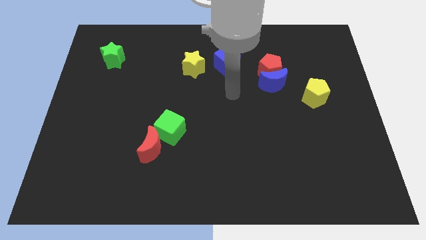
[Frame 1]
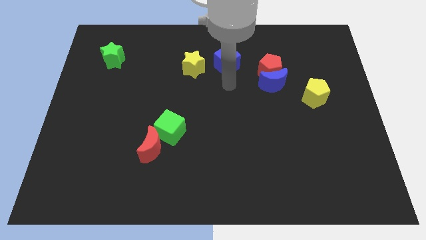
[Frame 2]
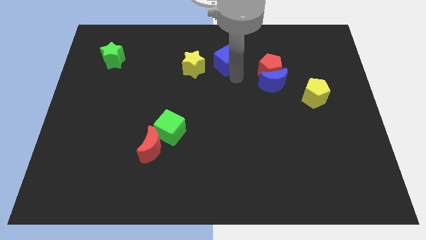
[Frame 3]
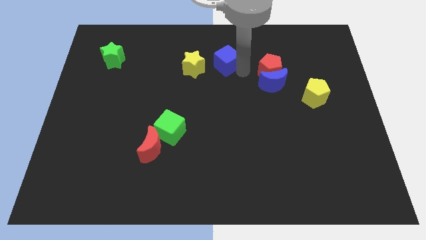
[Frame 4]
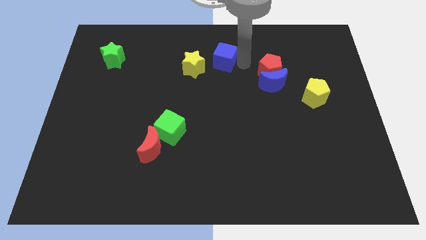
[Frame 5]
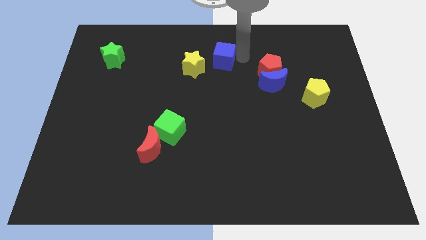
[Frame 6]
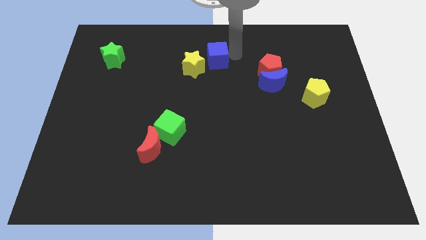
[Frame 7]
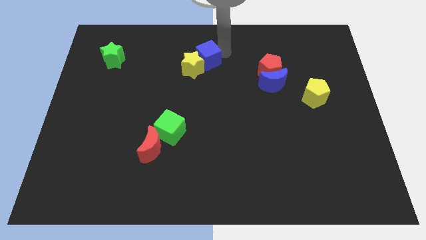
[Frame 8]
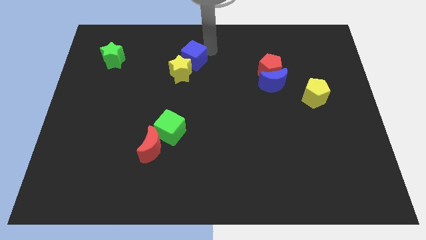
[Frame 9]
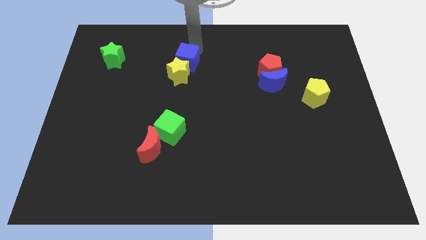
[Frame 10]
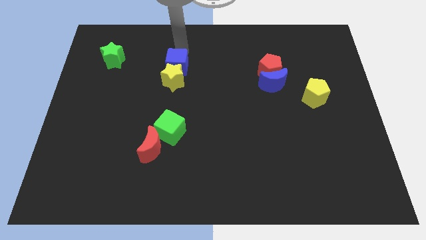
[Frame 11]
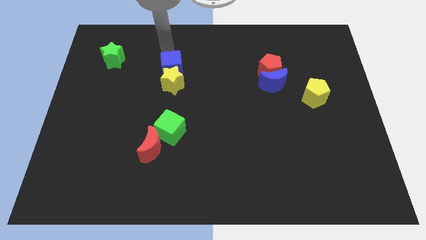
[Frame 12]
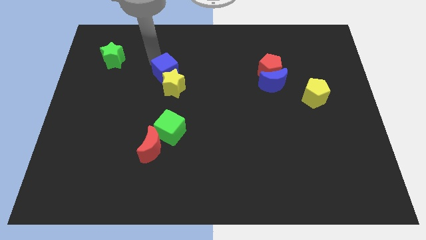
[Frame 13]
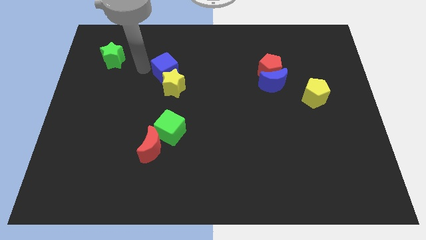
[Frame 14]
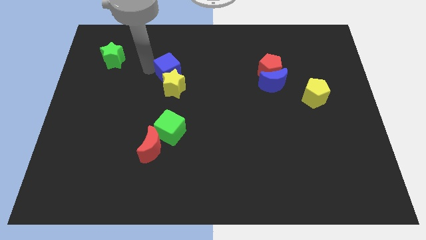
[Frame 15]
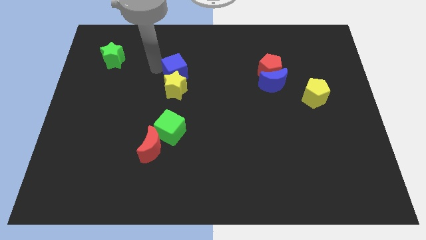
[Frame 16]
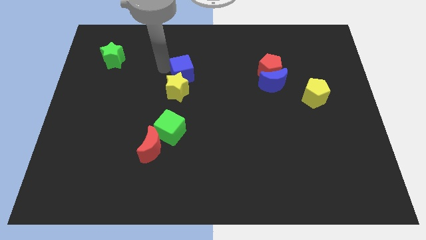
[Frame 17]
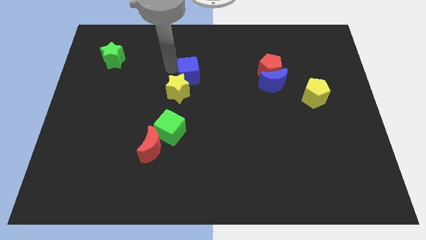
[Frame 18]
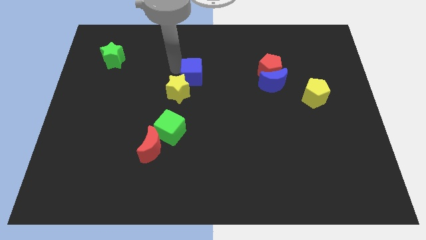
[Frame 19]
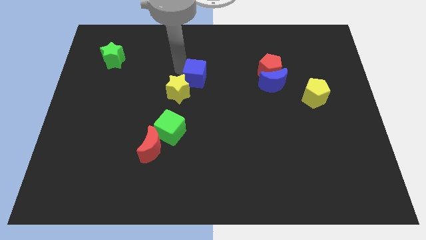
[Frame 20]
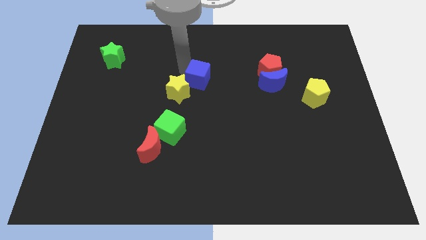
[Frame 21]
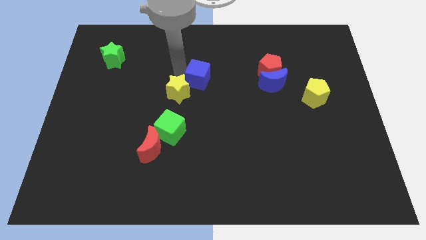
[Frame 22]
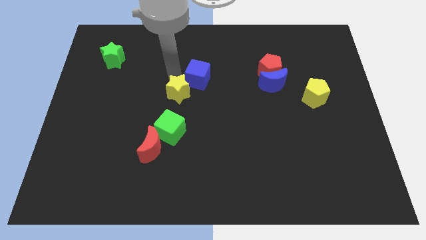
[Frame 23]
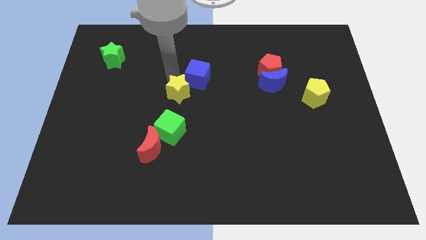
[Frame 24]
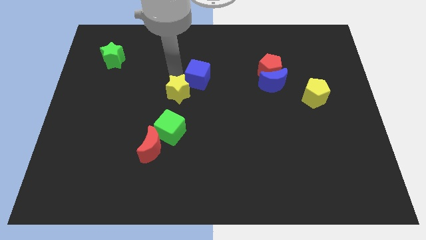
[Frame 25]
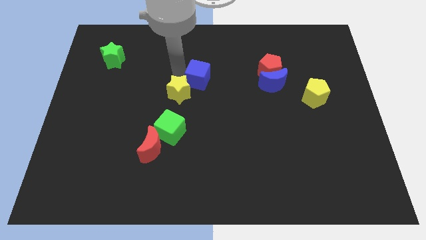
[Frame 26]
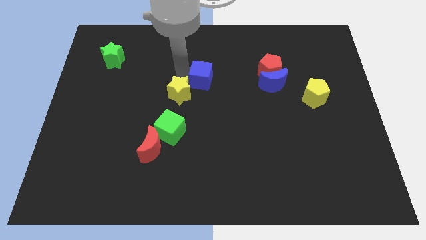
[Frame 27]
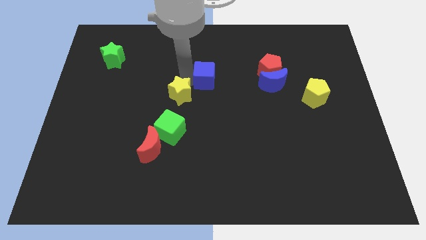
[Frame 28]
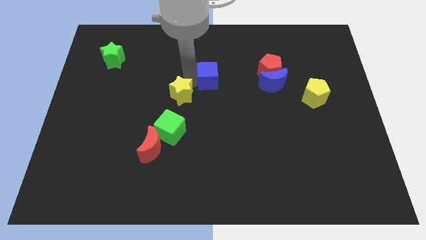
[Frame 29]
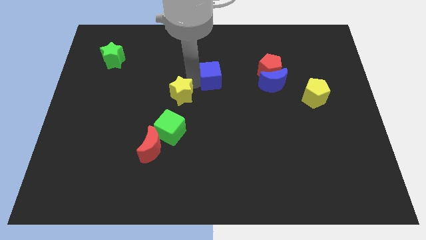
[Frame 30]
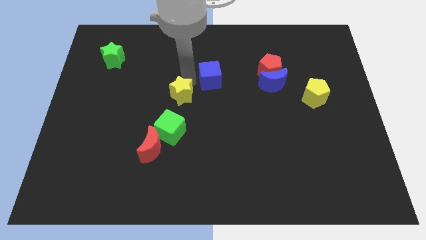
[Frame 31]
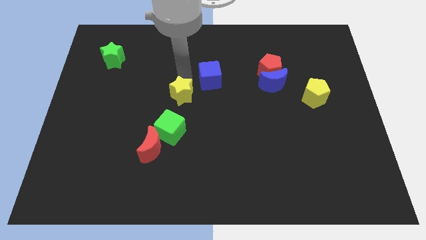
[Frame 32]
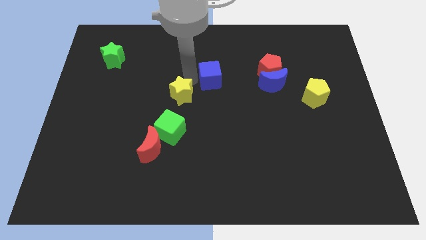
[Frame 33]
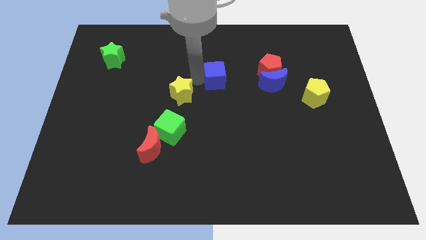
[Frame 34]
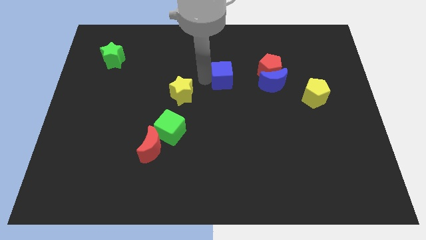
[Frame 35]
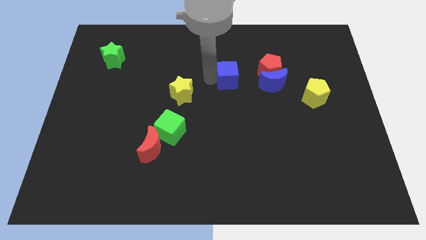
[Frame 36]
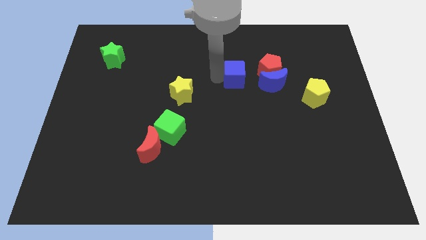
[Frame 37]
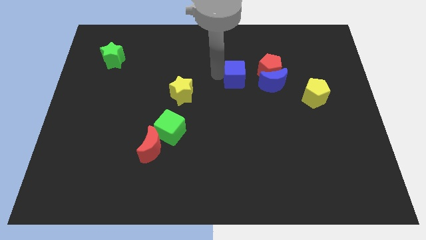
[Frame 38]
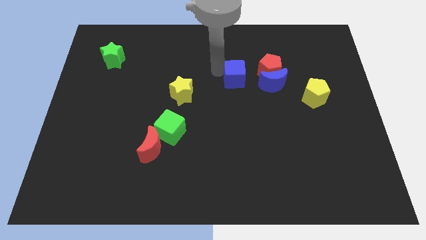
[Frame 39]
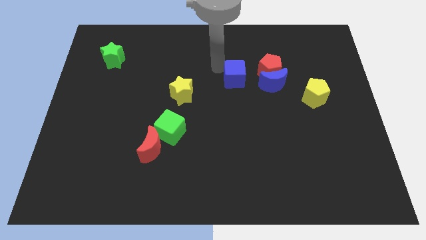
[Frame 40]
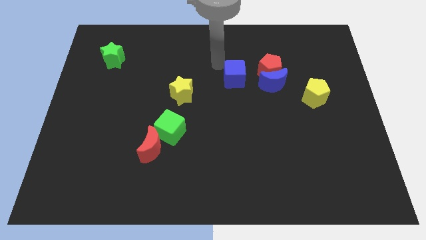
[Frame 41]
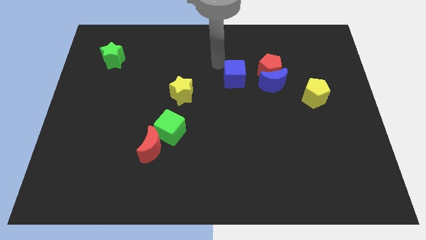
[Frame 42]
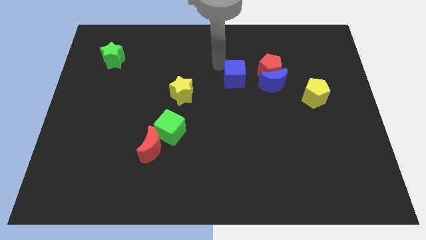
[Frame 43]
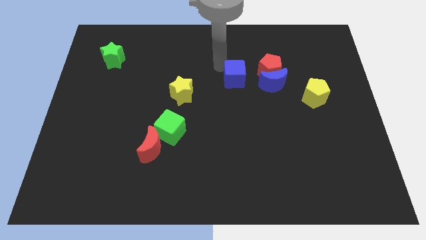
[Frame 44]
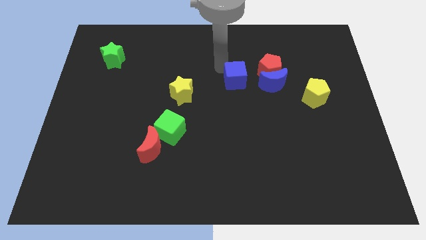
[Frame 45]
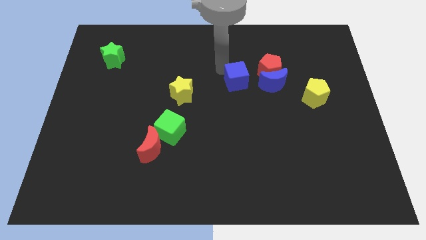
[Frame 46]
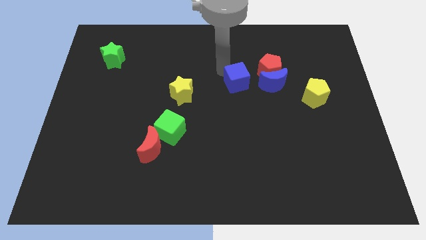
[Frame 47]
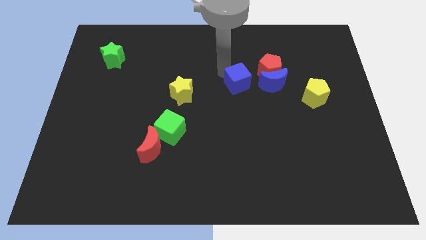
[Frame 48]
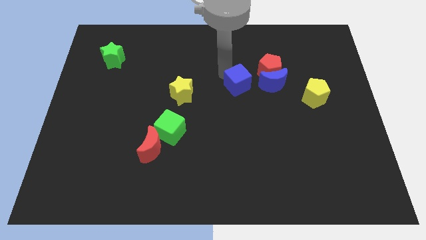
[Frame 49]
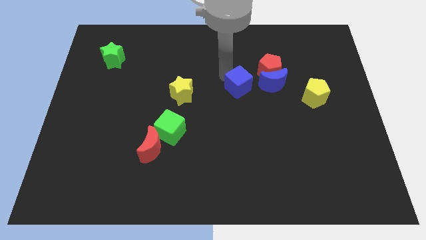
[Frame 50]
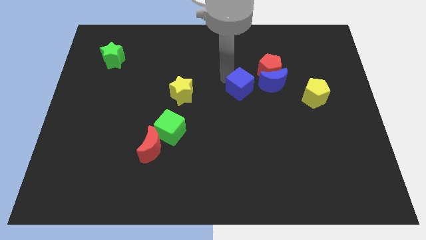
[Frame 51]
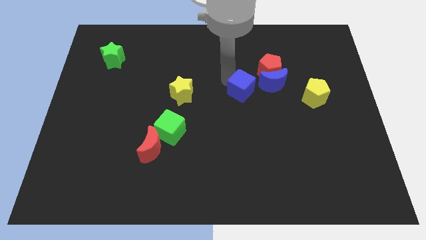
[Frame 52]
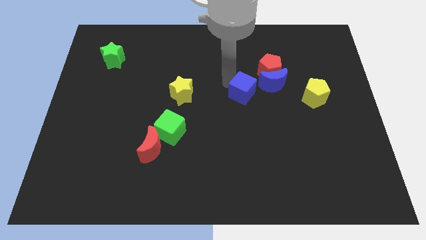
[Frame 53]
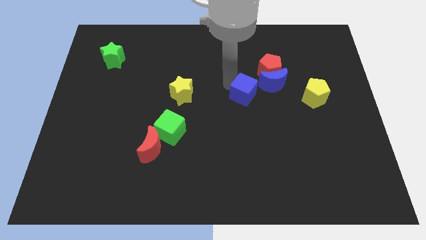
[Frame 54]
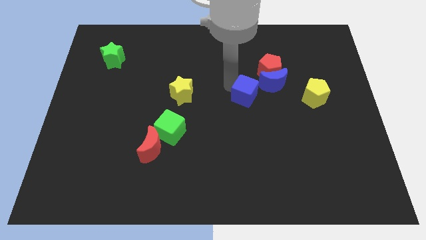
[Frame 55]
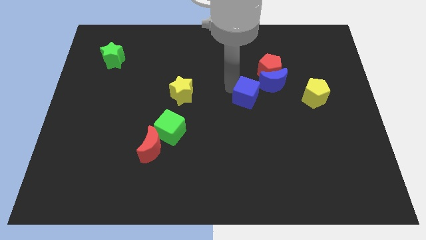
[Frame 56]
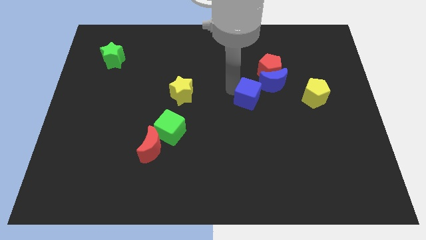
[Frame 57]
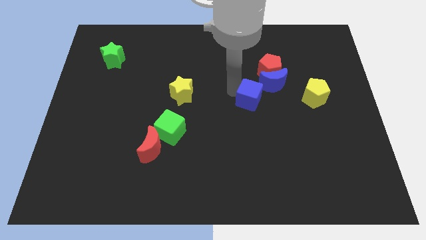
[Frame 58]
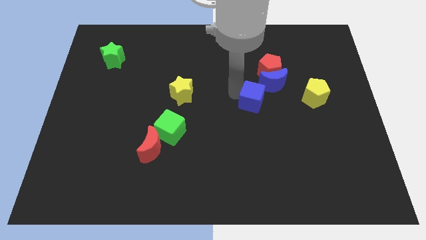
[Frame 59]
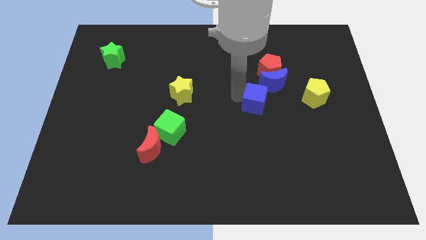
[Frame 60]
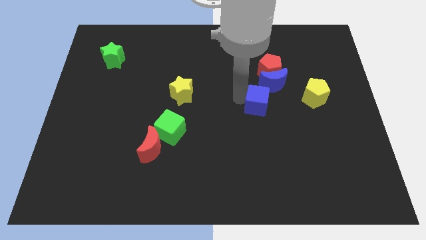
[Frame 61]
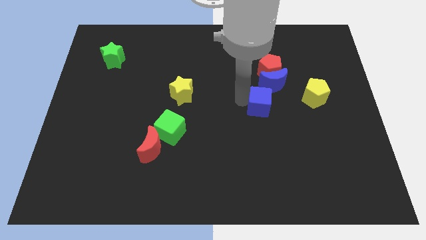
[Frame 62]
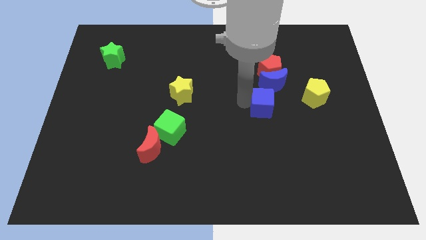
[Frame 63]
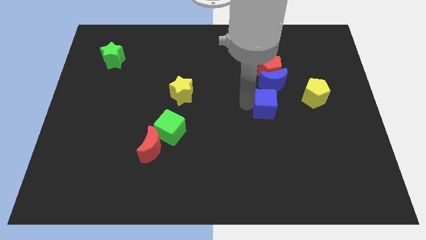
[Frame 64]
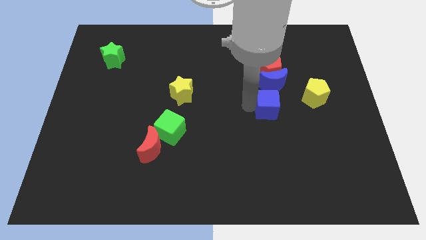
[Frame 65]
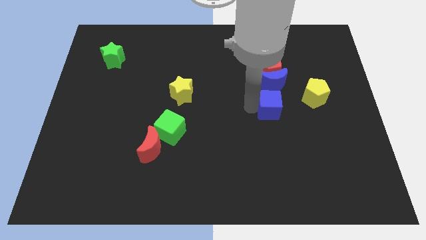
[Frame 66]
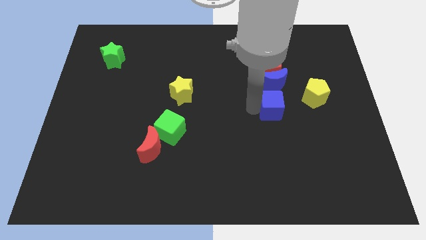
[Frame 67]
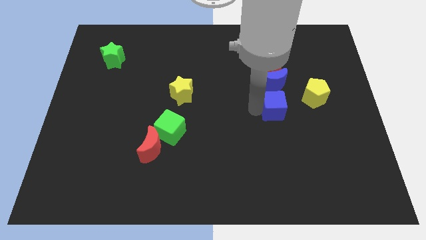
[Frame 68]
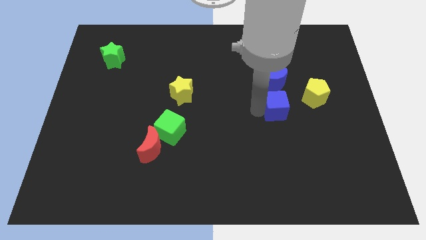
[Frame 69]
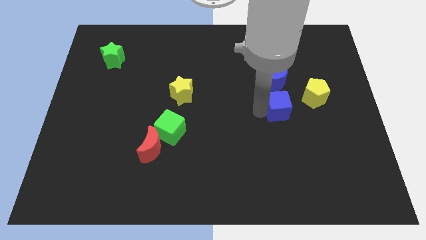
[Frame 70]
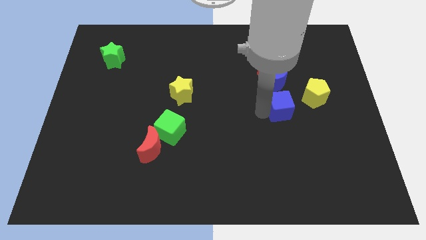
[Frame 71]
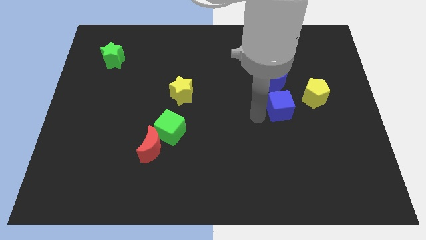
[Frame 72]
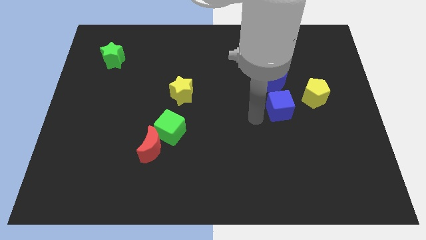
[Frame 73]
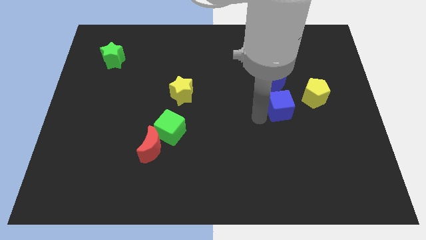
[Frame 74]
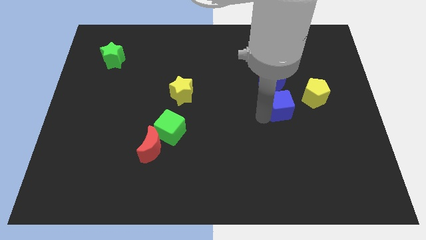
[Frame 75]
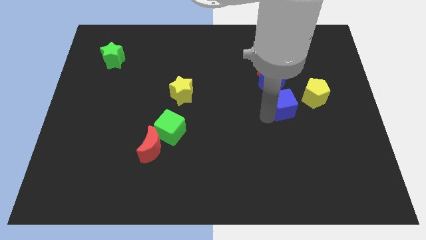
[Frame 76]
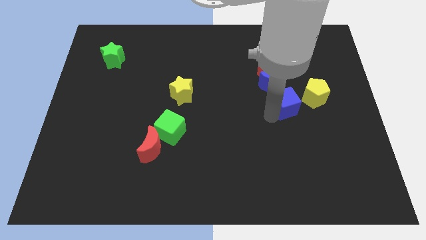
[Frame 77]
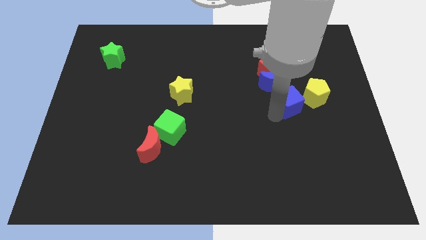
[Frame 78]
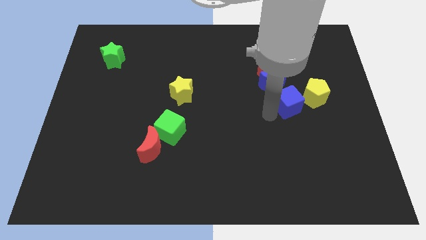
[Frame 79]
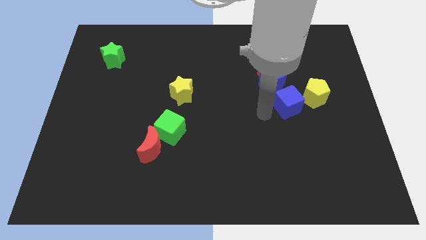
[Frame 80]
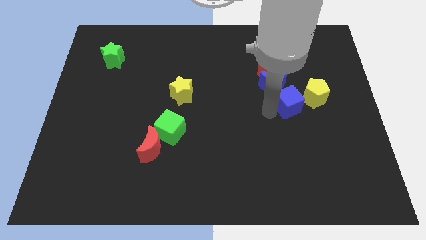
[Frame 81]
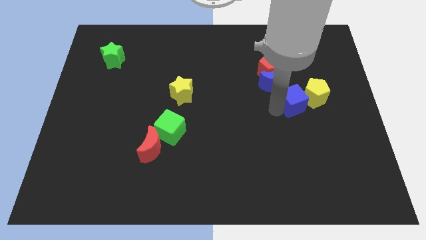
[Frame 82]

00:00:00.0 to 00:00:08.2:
slide the blue cube close to the yellow pentagon
